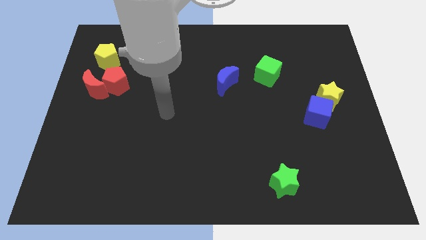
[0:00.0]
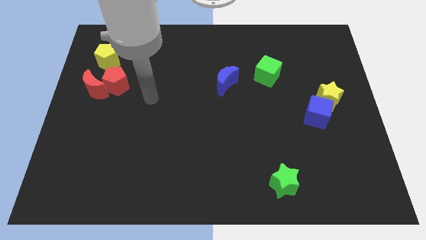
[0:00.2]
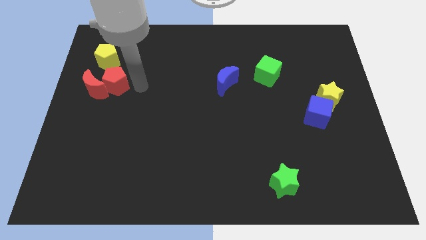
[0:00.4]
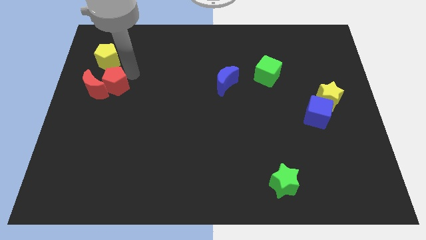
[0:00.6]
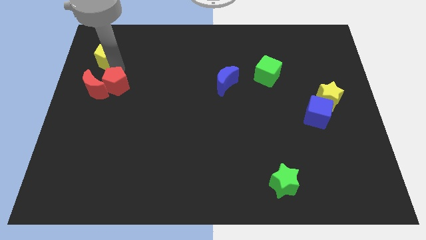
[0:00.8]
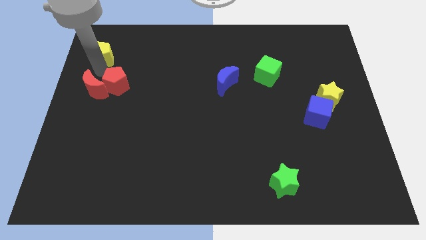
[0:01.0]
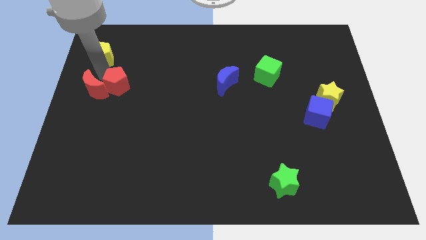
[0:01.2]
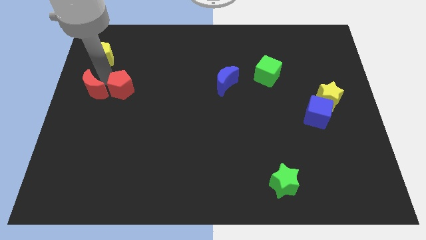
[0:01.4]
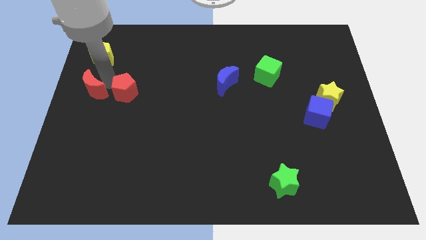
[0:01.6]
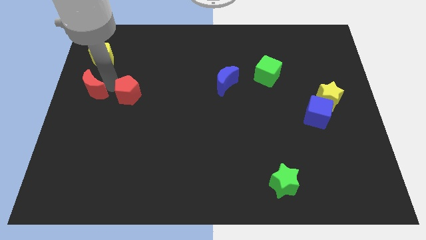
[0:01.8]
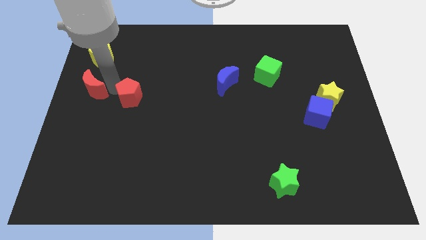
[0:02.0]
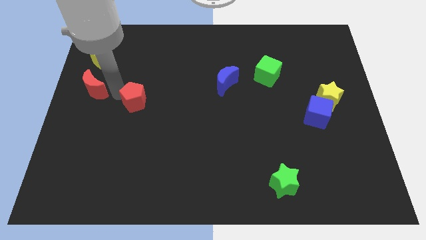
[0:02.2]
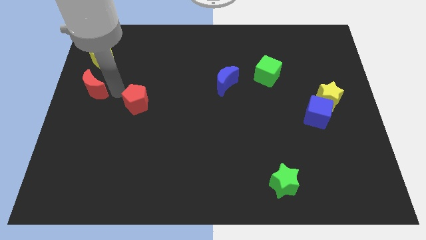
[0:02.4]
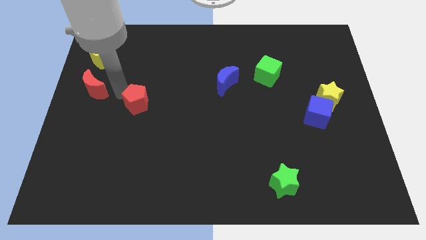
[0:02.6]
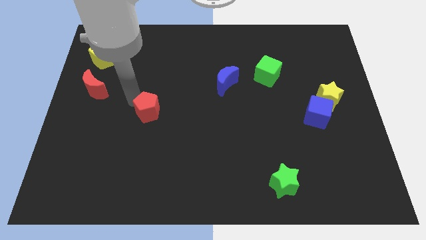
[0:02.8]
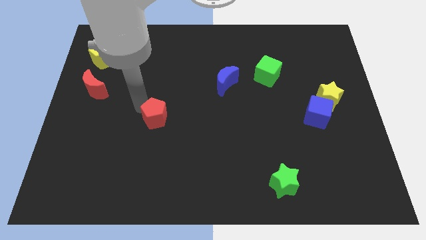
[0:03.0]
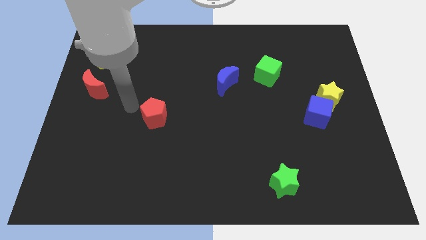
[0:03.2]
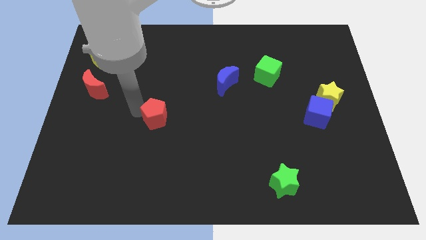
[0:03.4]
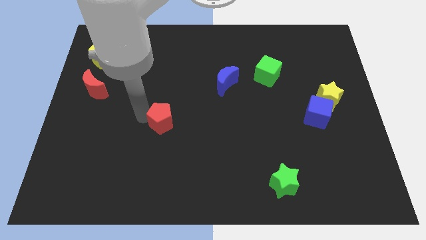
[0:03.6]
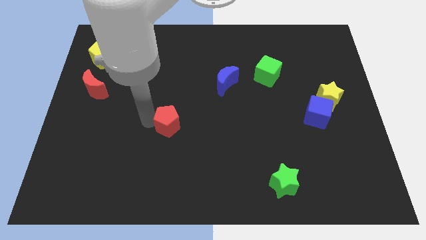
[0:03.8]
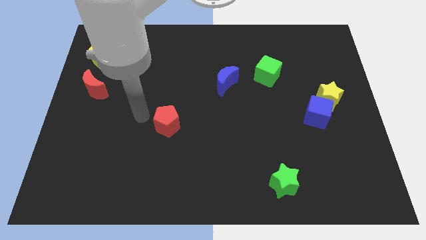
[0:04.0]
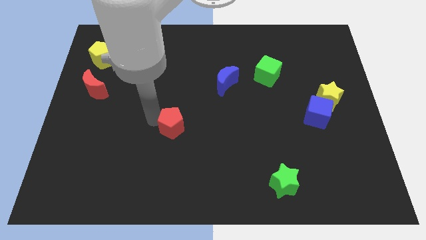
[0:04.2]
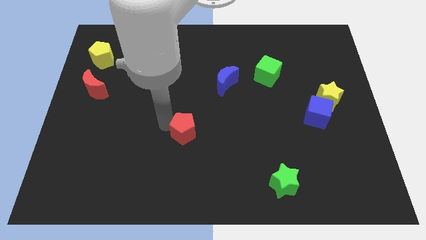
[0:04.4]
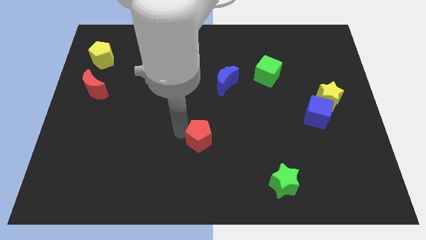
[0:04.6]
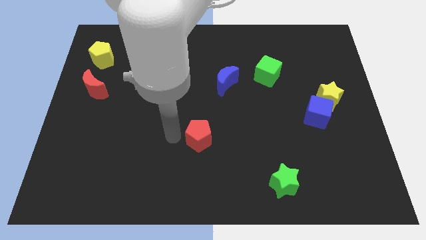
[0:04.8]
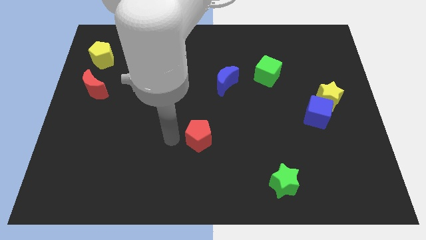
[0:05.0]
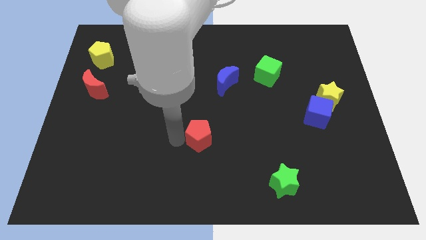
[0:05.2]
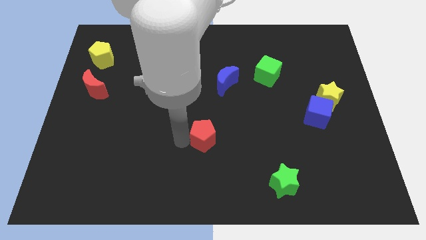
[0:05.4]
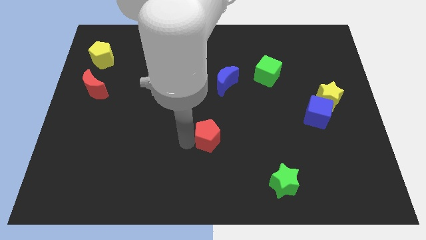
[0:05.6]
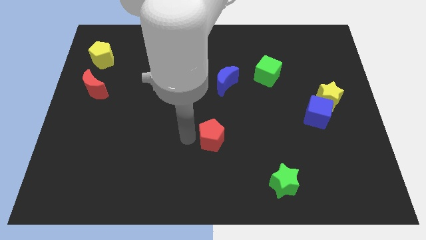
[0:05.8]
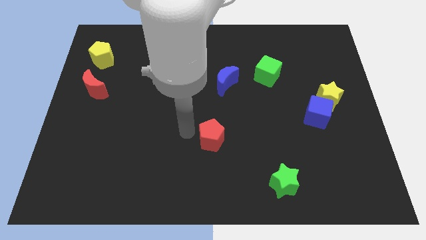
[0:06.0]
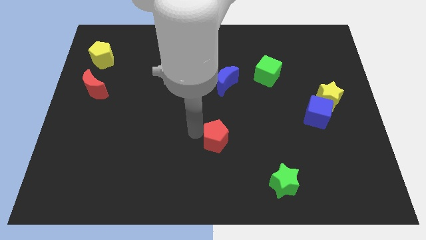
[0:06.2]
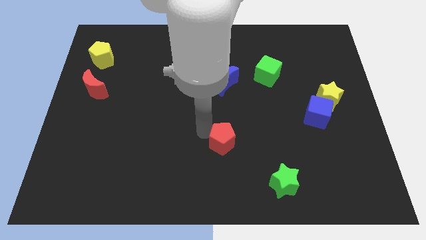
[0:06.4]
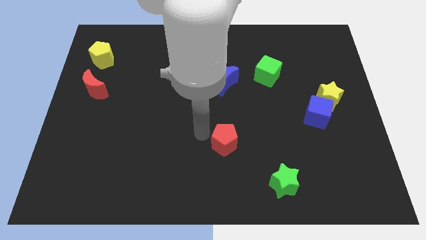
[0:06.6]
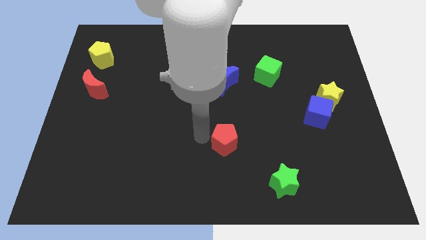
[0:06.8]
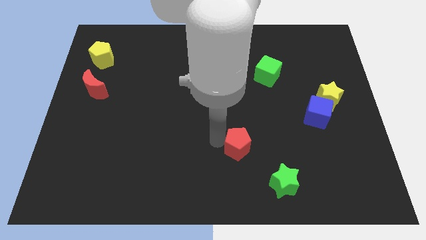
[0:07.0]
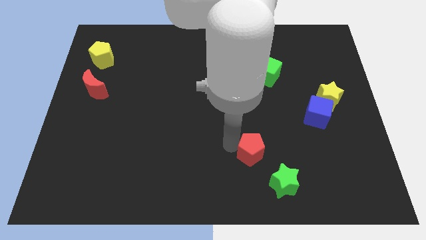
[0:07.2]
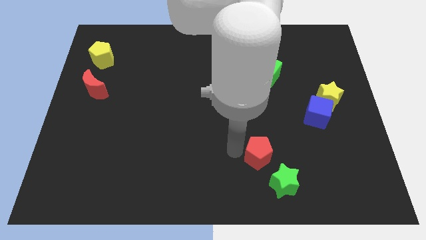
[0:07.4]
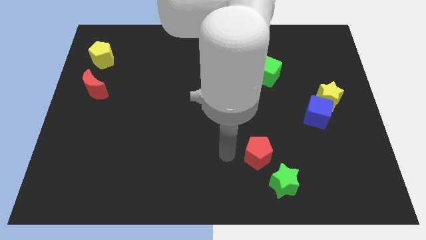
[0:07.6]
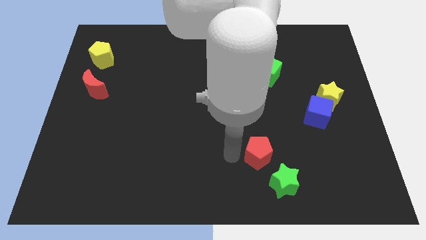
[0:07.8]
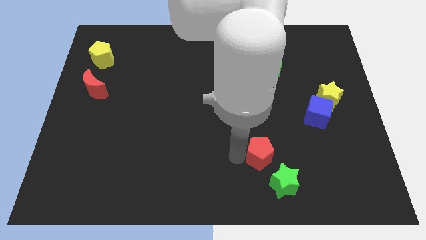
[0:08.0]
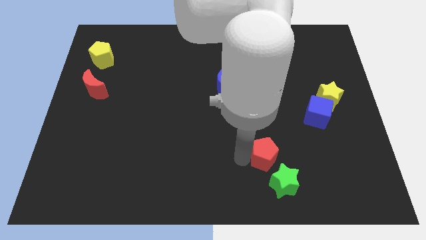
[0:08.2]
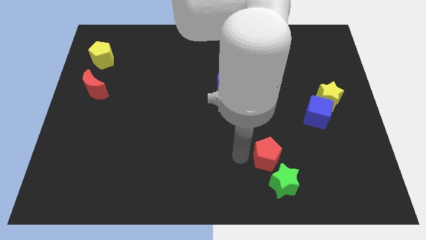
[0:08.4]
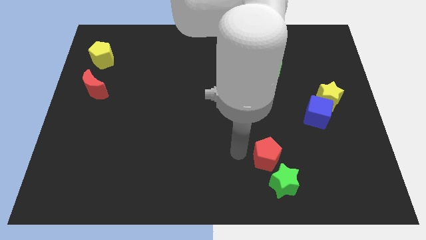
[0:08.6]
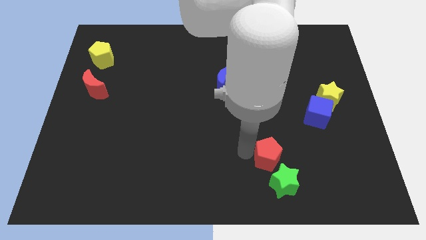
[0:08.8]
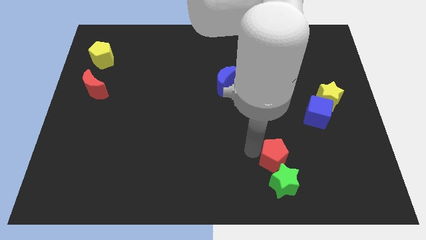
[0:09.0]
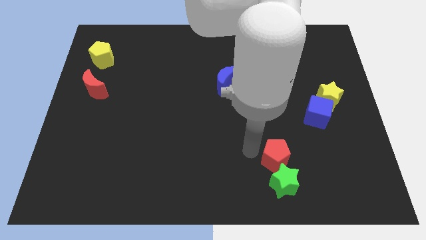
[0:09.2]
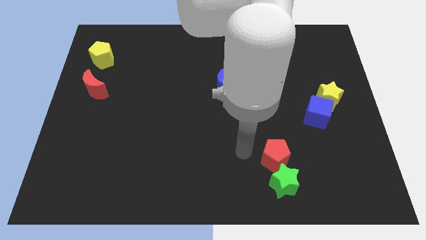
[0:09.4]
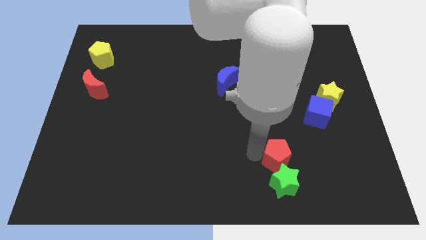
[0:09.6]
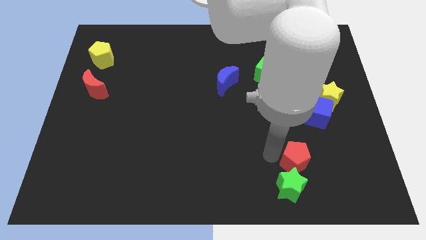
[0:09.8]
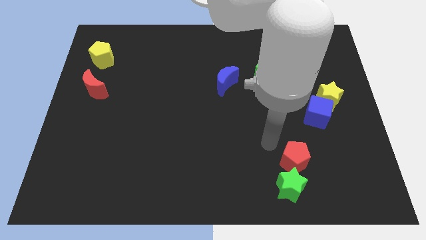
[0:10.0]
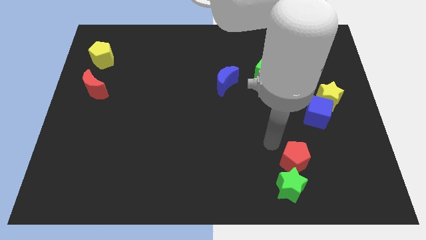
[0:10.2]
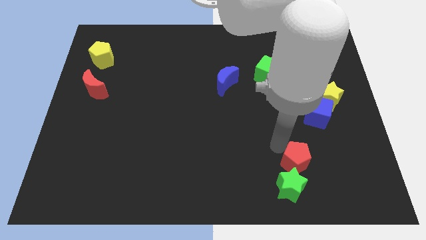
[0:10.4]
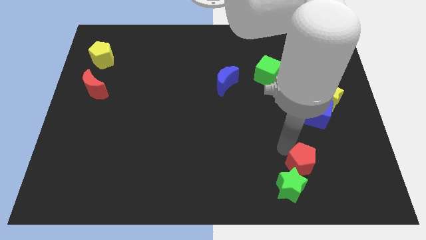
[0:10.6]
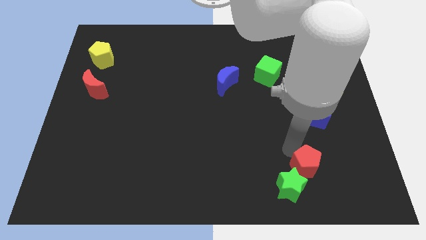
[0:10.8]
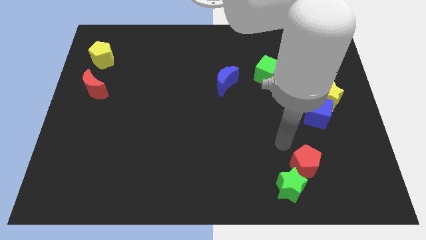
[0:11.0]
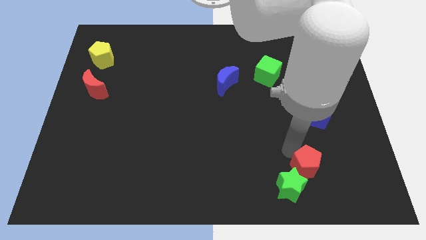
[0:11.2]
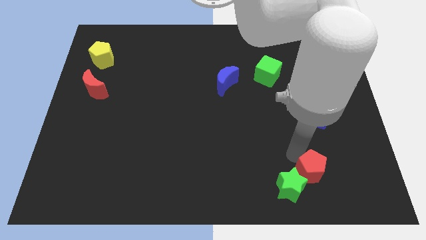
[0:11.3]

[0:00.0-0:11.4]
move the red pentagon to the right of the green star
